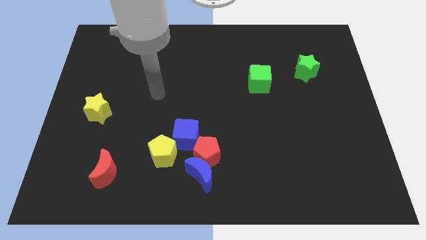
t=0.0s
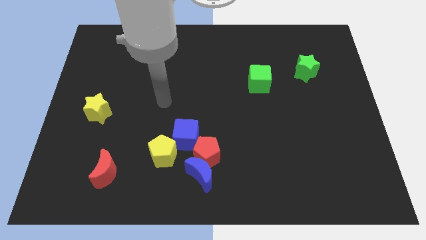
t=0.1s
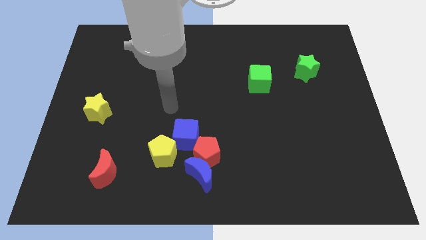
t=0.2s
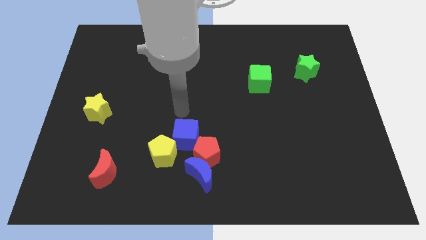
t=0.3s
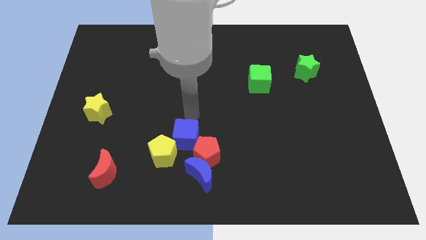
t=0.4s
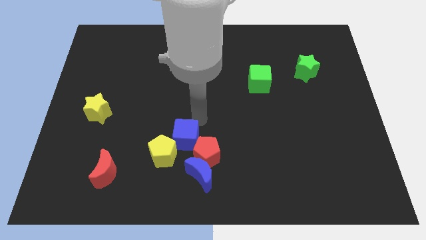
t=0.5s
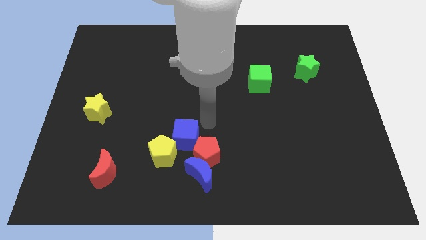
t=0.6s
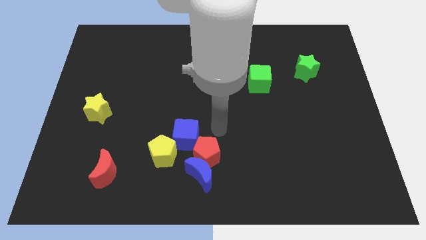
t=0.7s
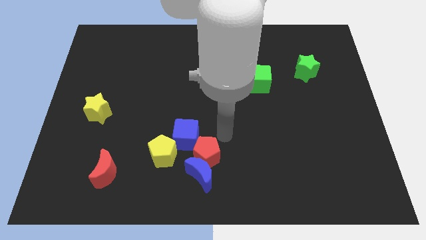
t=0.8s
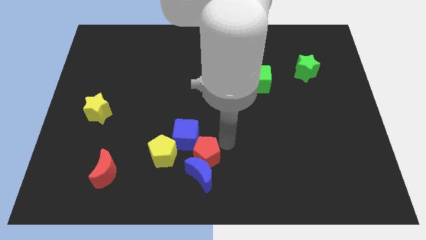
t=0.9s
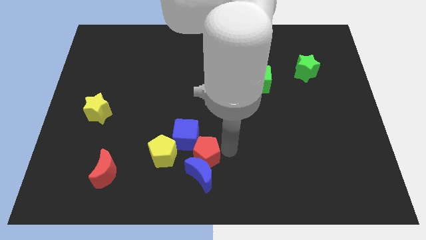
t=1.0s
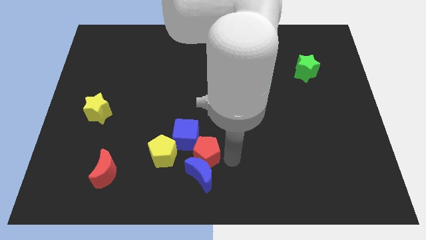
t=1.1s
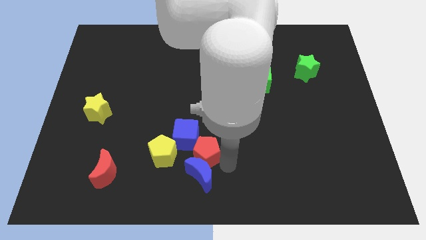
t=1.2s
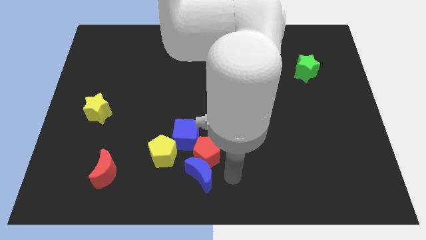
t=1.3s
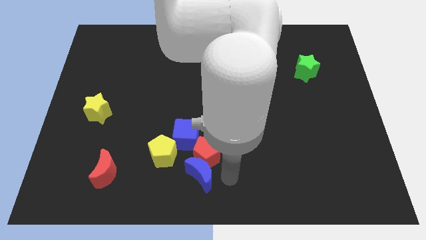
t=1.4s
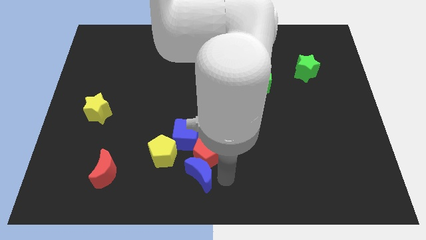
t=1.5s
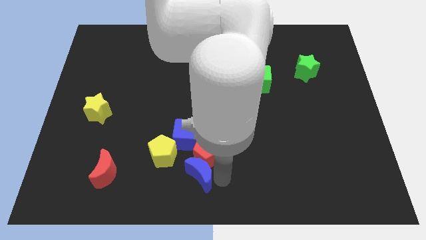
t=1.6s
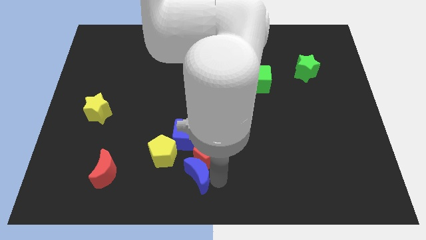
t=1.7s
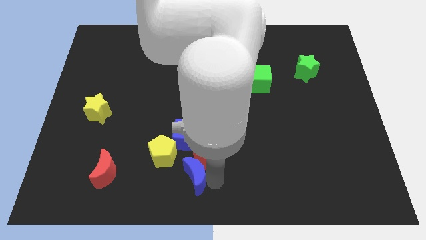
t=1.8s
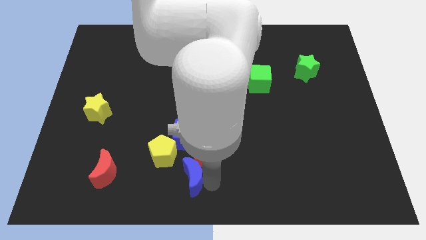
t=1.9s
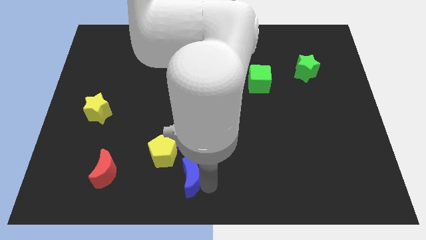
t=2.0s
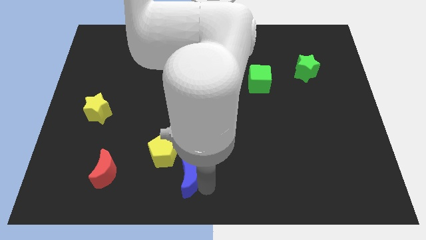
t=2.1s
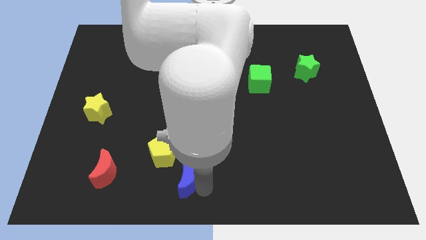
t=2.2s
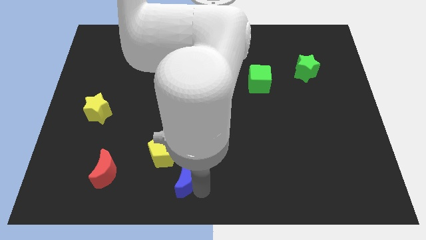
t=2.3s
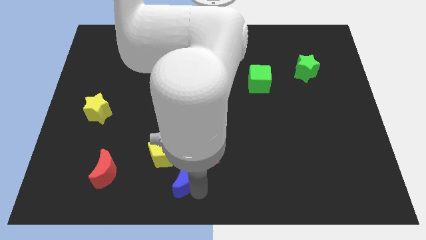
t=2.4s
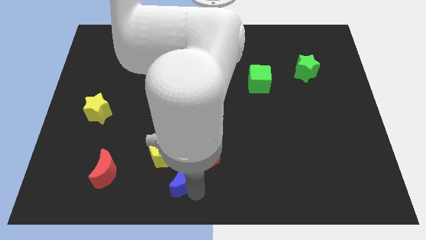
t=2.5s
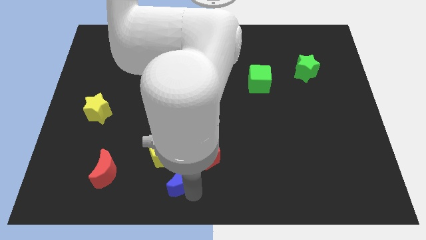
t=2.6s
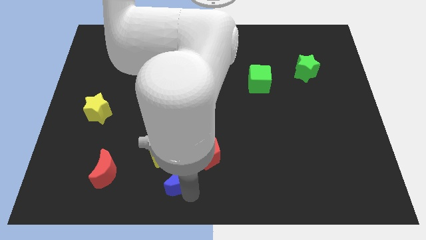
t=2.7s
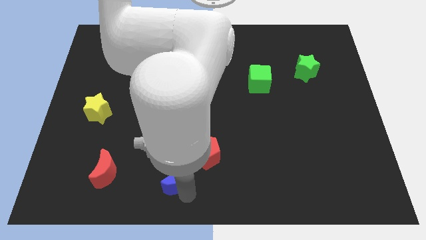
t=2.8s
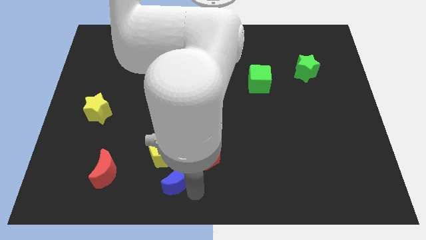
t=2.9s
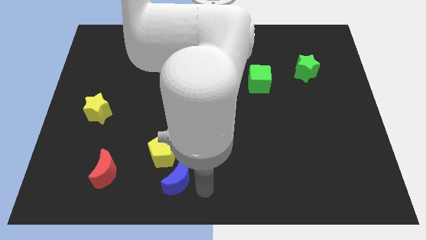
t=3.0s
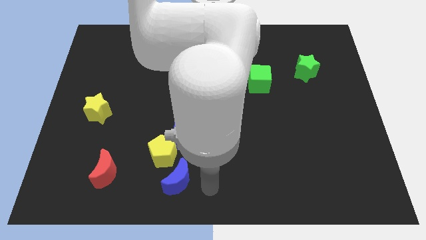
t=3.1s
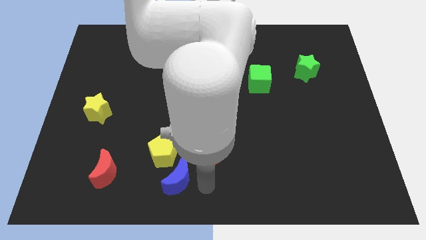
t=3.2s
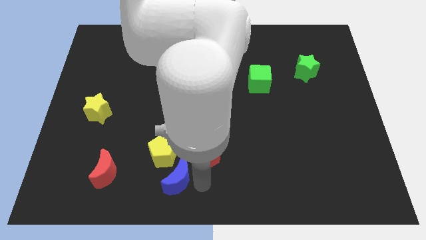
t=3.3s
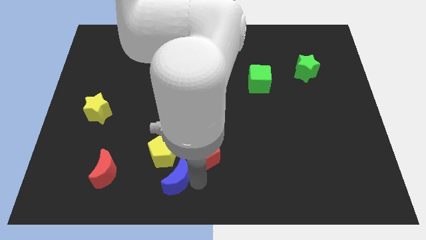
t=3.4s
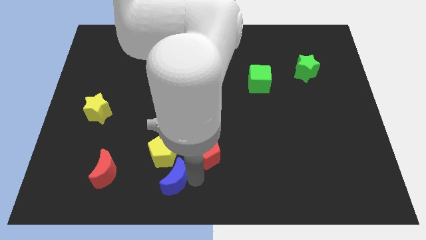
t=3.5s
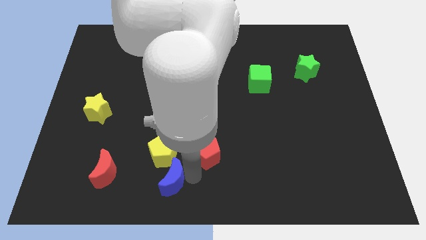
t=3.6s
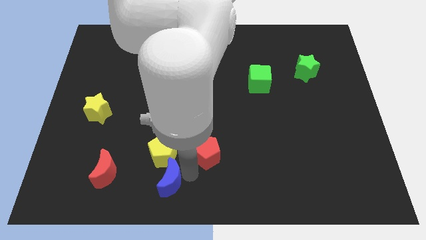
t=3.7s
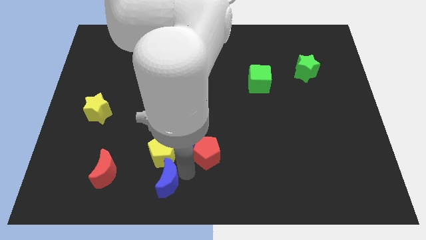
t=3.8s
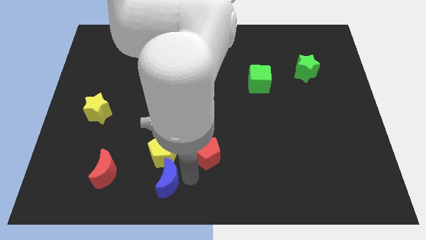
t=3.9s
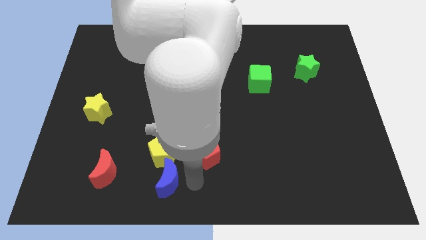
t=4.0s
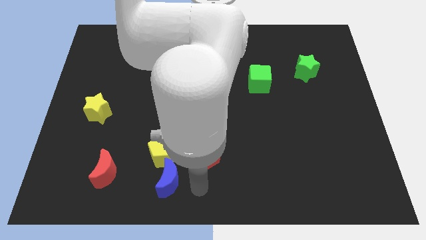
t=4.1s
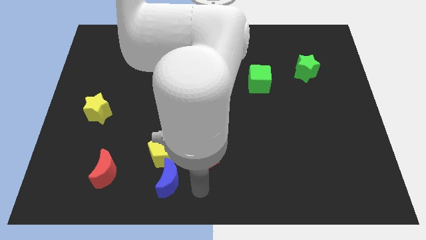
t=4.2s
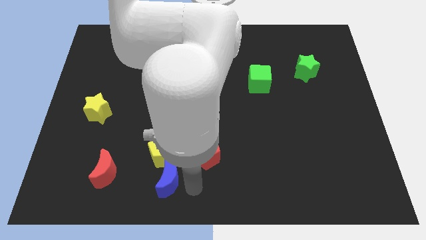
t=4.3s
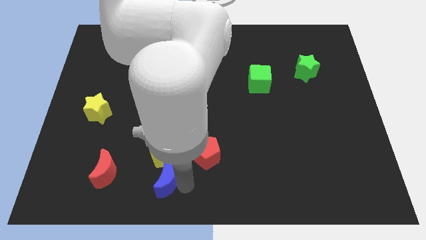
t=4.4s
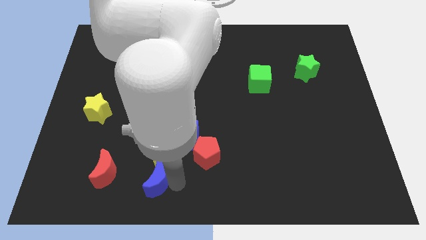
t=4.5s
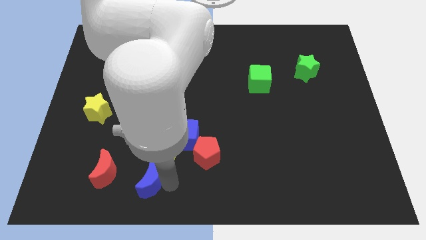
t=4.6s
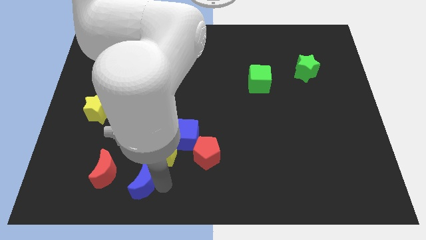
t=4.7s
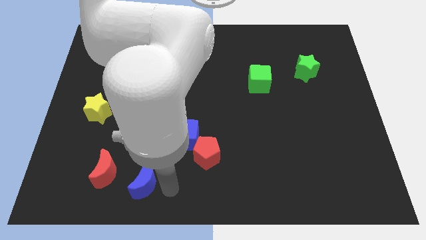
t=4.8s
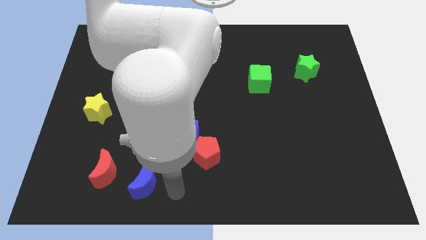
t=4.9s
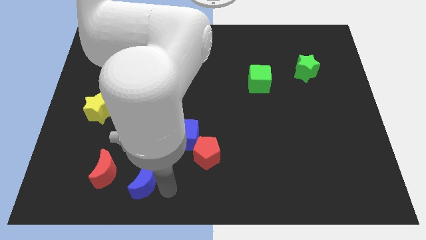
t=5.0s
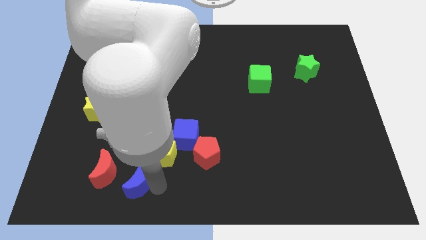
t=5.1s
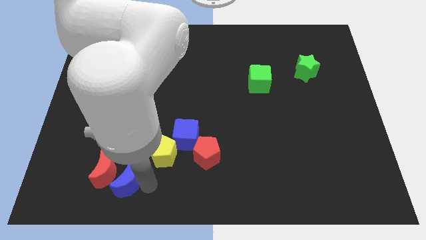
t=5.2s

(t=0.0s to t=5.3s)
move the blue moon close to the red moon

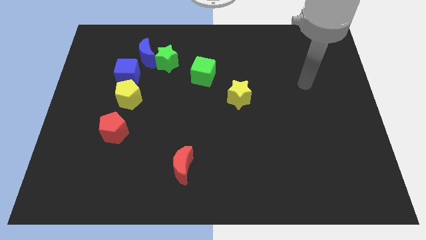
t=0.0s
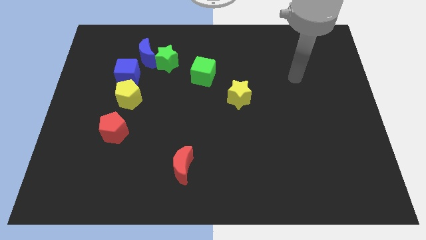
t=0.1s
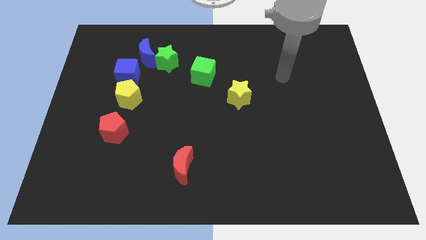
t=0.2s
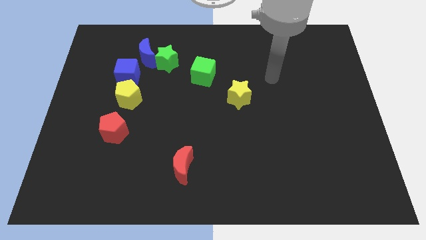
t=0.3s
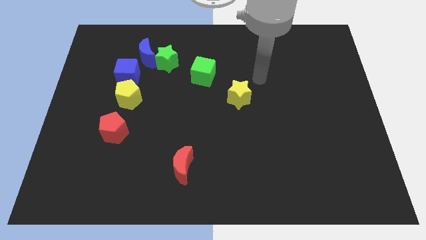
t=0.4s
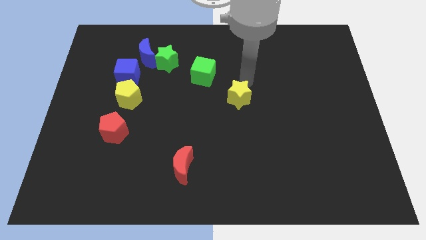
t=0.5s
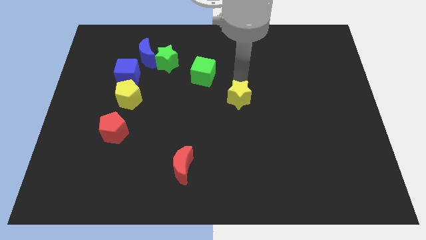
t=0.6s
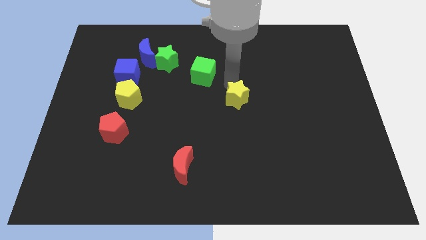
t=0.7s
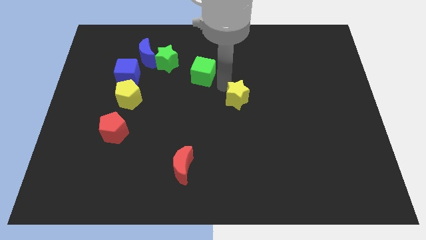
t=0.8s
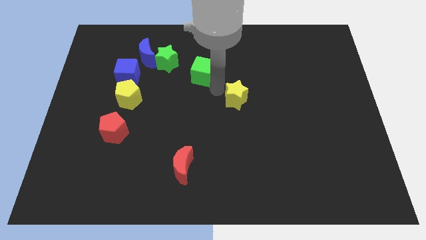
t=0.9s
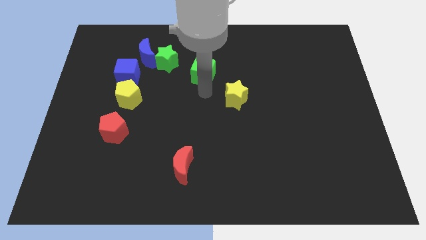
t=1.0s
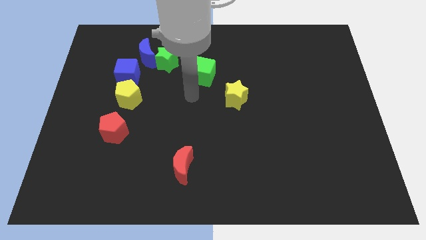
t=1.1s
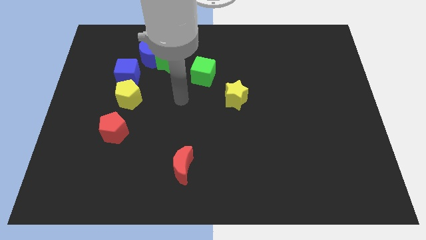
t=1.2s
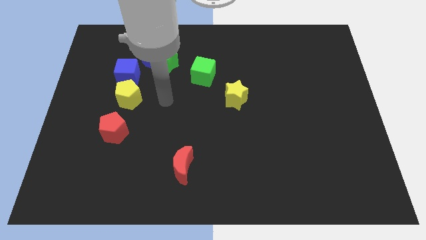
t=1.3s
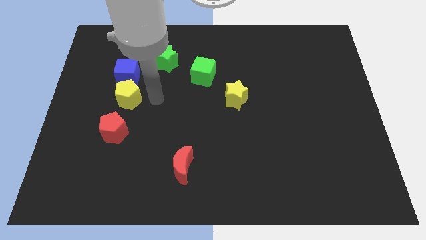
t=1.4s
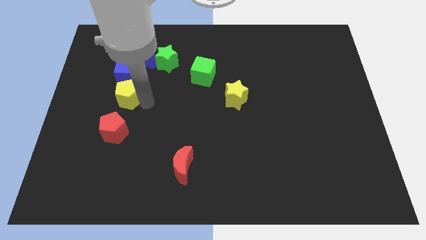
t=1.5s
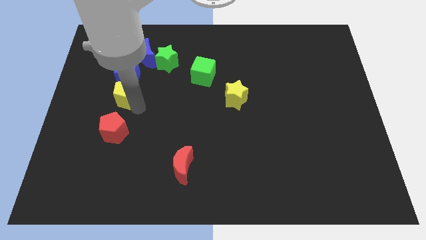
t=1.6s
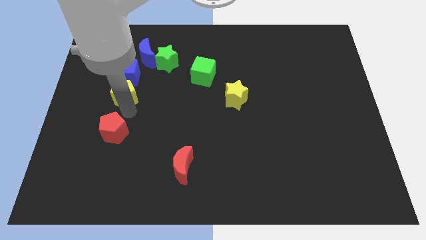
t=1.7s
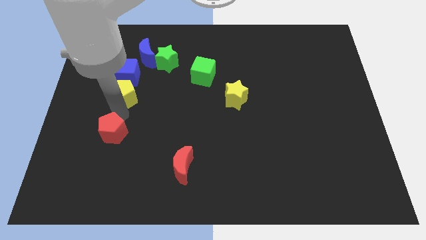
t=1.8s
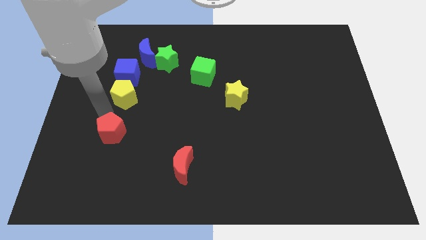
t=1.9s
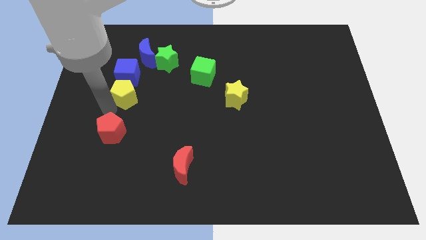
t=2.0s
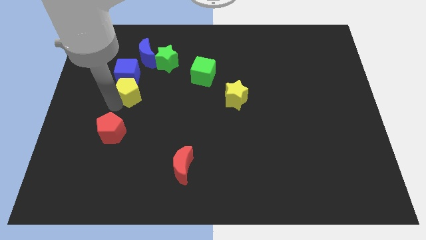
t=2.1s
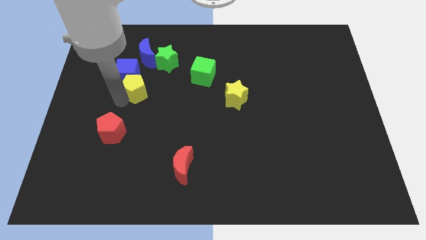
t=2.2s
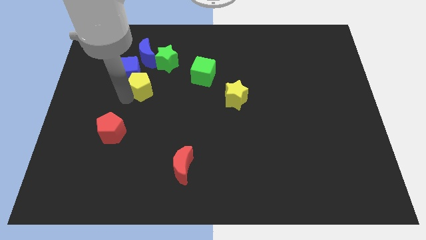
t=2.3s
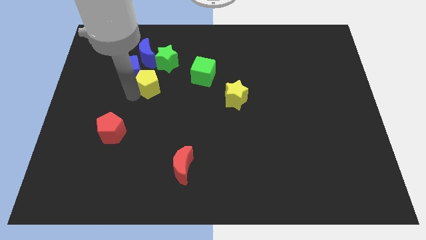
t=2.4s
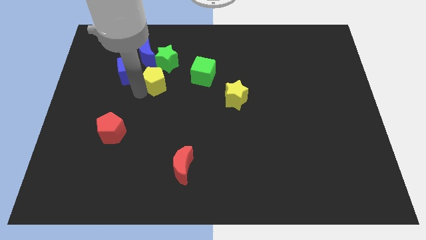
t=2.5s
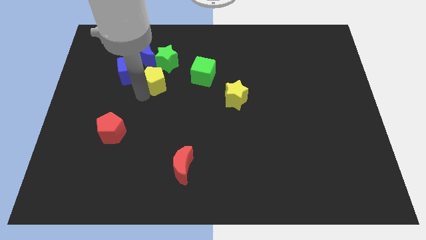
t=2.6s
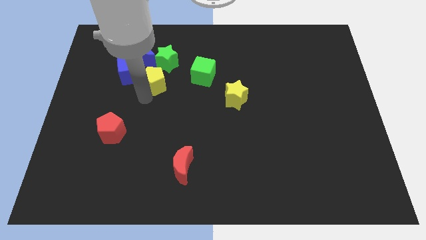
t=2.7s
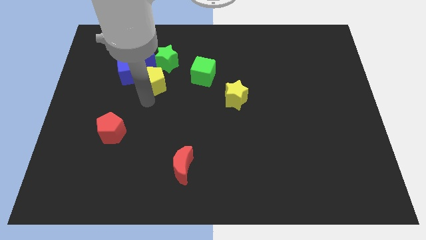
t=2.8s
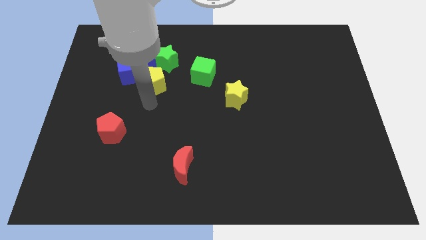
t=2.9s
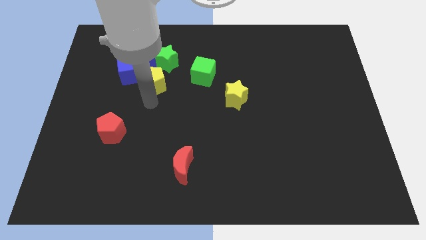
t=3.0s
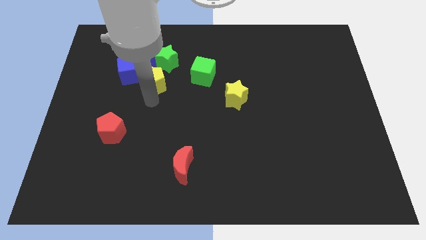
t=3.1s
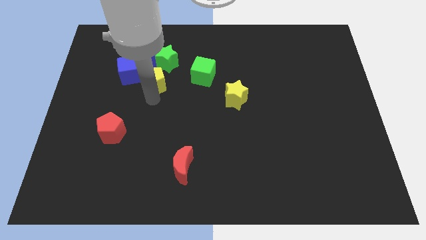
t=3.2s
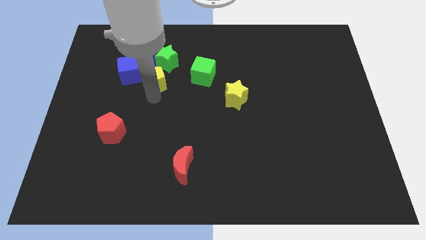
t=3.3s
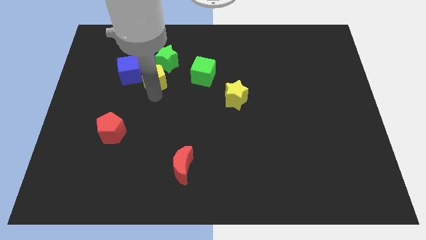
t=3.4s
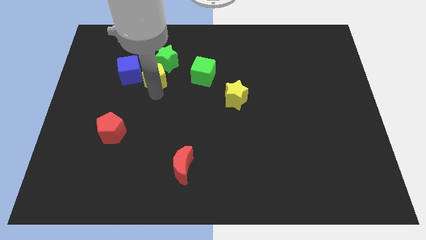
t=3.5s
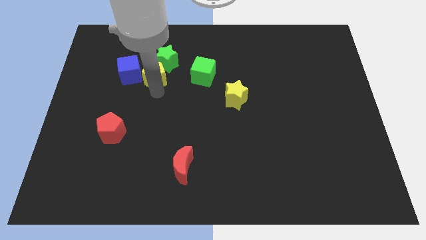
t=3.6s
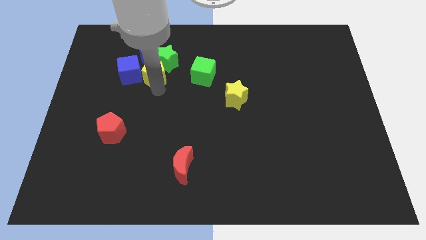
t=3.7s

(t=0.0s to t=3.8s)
move the yellow pentagon to the green star
